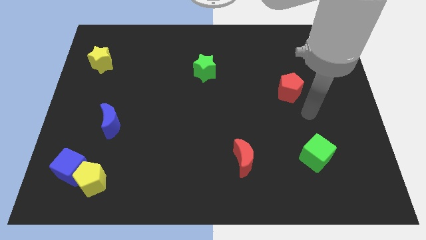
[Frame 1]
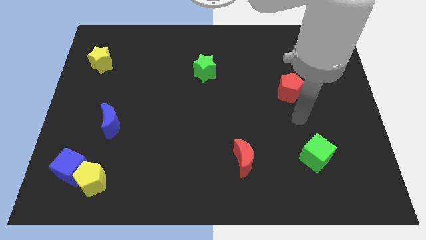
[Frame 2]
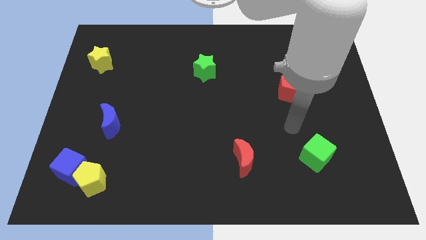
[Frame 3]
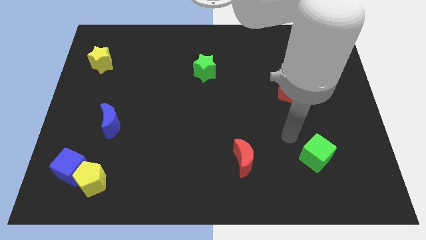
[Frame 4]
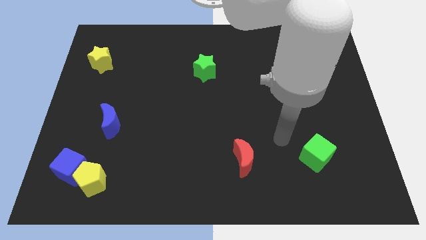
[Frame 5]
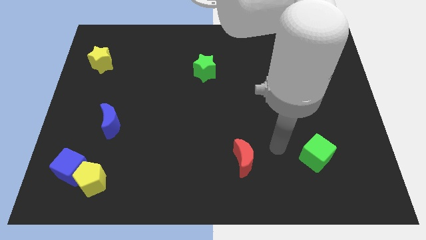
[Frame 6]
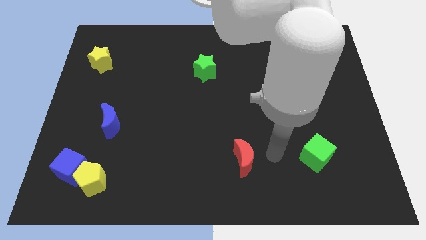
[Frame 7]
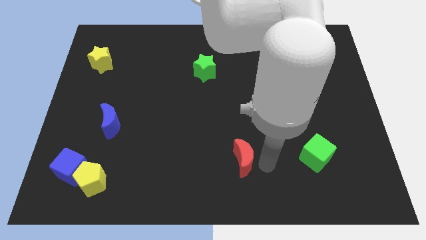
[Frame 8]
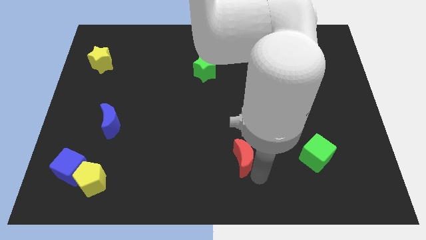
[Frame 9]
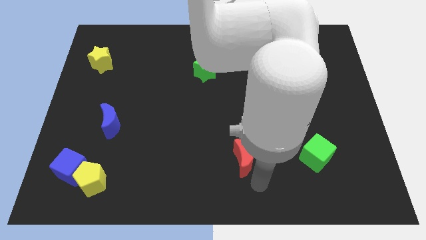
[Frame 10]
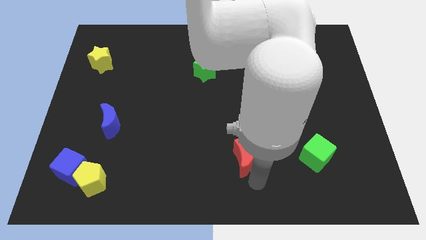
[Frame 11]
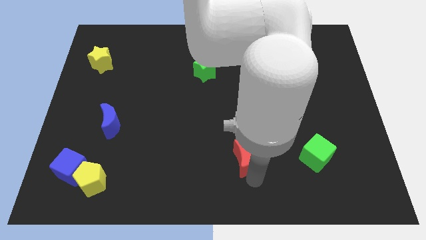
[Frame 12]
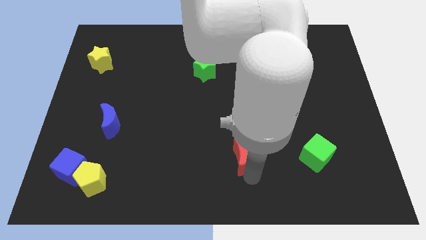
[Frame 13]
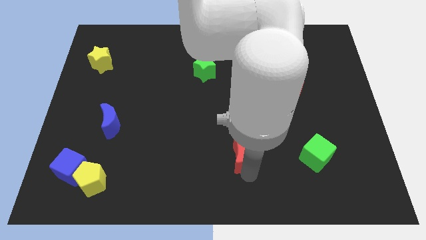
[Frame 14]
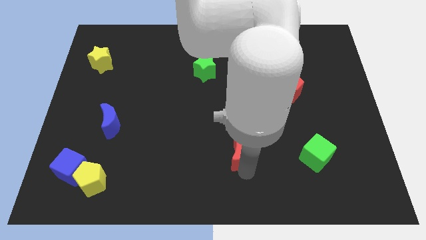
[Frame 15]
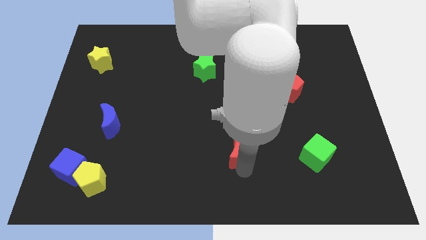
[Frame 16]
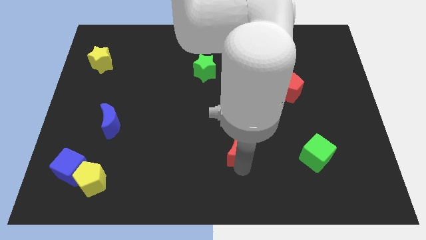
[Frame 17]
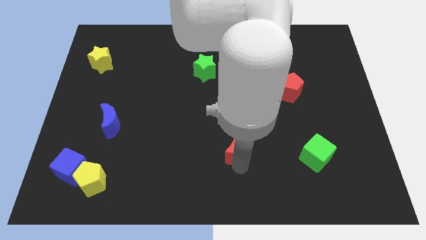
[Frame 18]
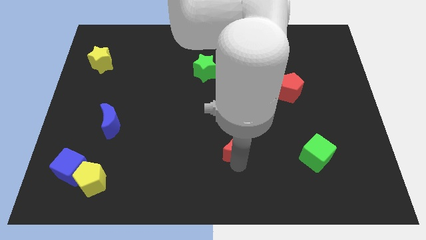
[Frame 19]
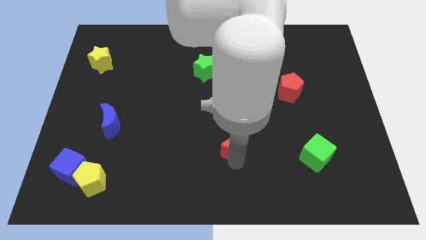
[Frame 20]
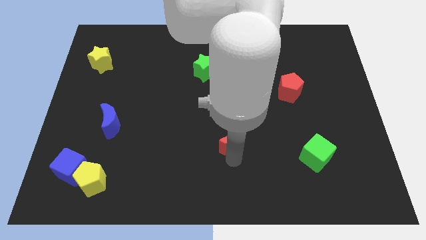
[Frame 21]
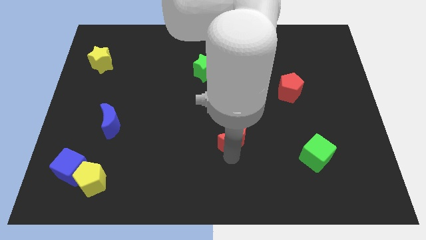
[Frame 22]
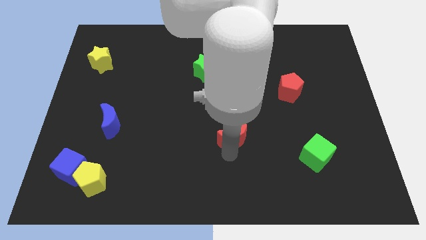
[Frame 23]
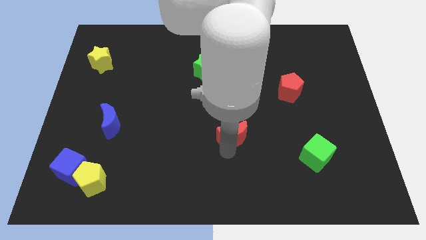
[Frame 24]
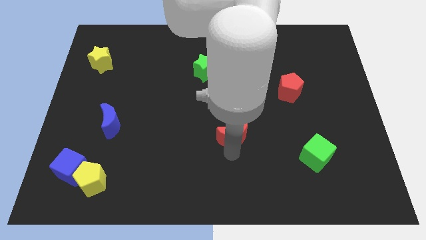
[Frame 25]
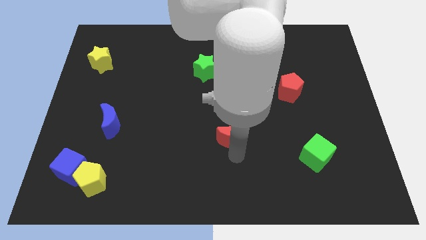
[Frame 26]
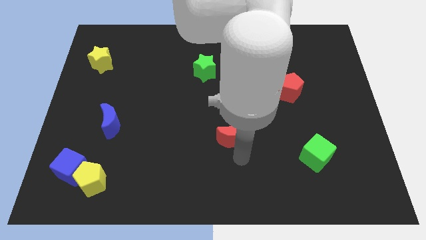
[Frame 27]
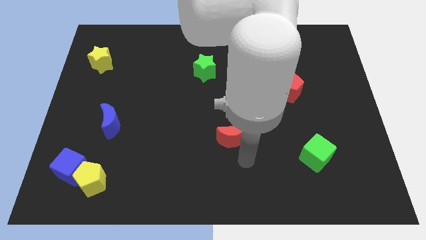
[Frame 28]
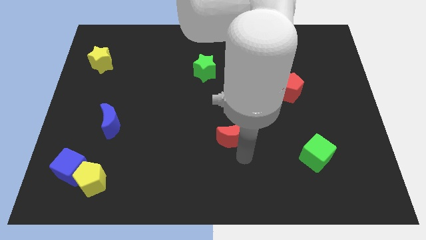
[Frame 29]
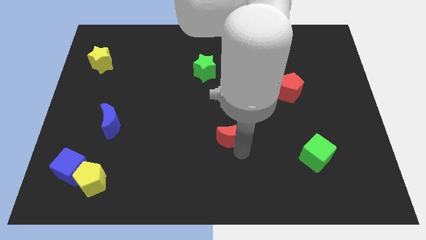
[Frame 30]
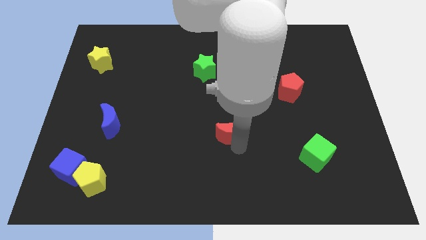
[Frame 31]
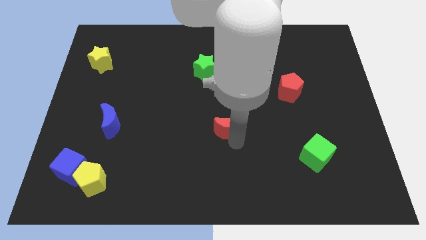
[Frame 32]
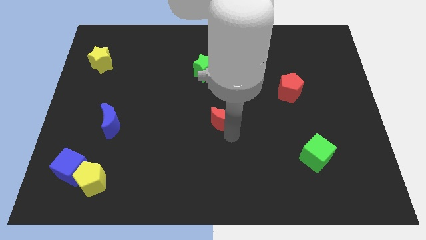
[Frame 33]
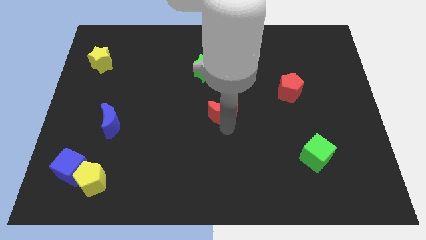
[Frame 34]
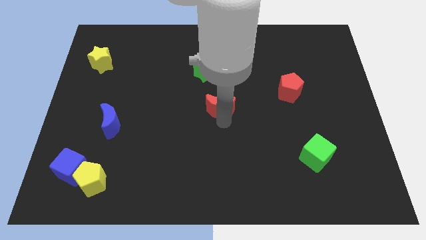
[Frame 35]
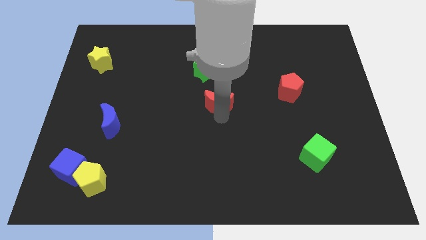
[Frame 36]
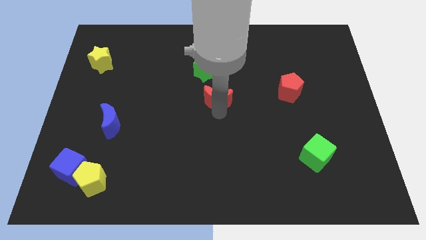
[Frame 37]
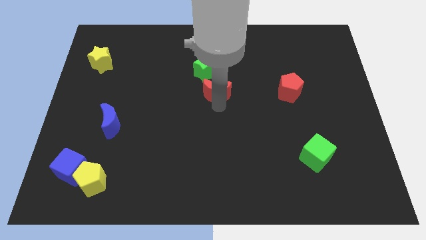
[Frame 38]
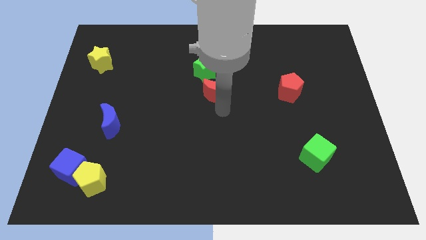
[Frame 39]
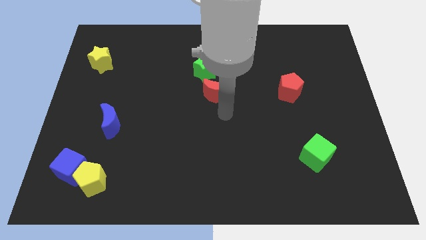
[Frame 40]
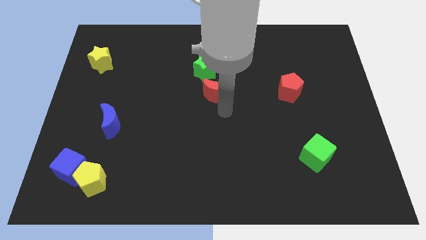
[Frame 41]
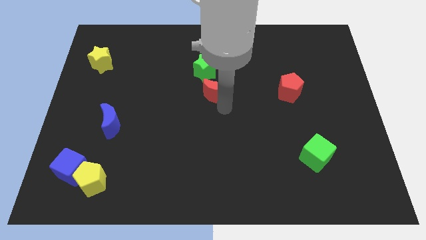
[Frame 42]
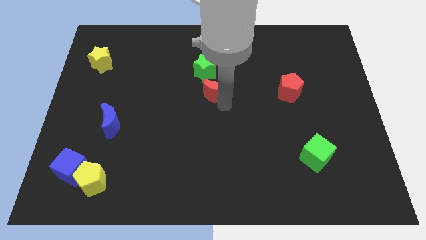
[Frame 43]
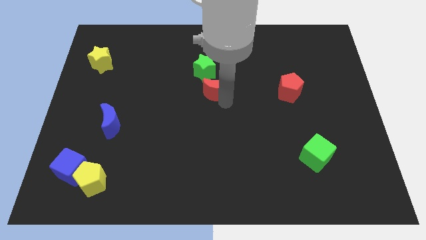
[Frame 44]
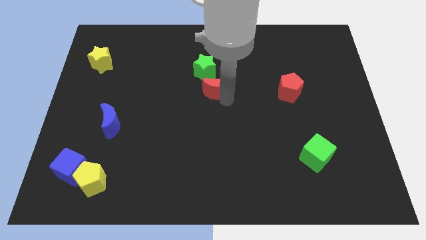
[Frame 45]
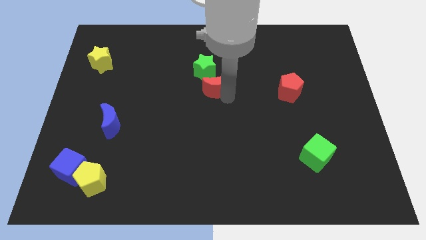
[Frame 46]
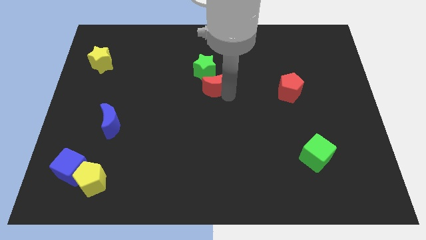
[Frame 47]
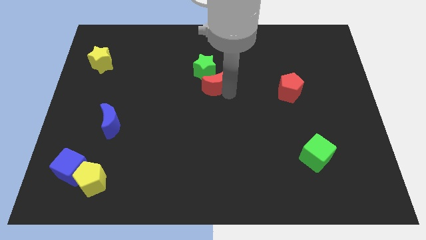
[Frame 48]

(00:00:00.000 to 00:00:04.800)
put the red moon close to the green star

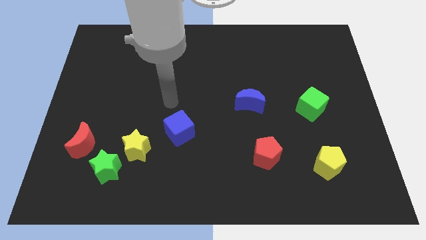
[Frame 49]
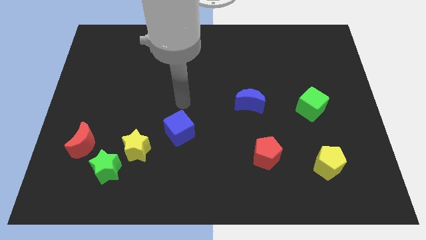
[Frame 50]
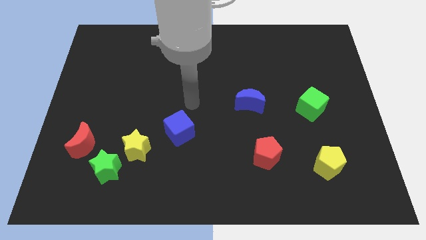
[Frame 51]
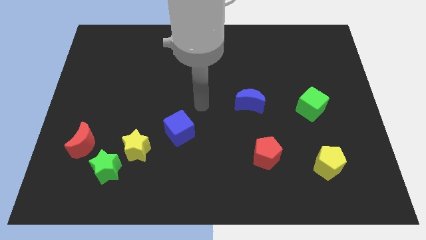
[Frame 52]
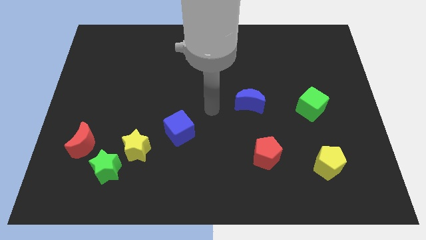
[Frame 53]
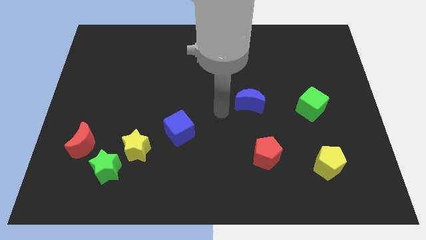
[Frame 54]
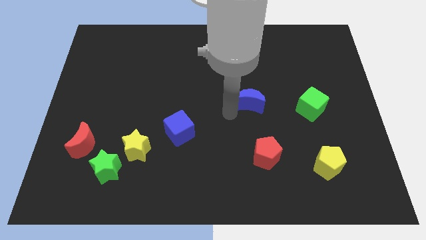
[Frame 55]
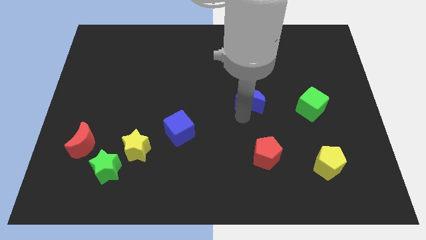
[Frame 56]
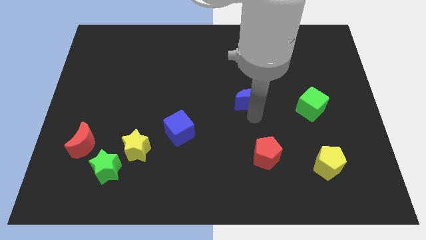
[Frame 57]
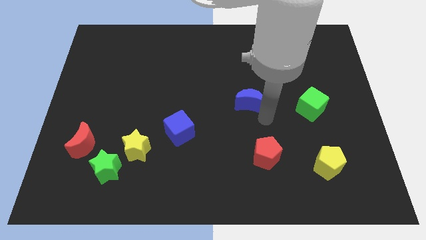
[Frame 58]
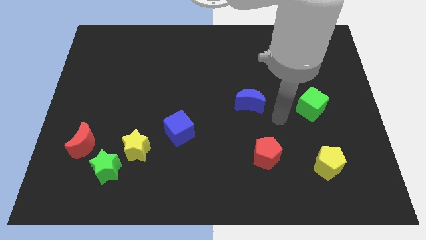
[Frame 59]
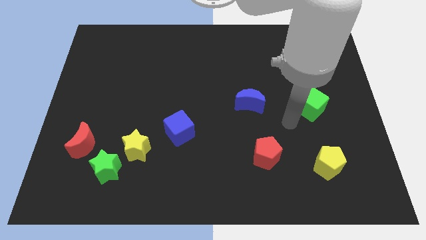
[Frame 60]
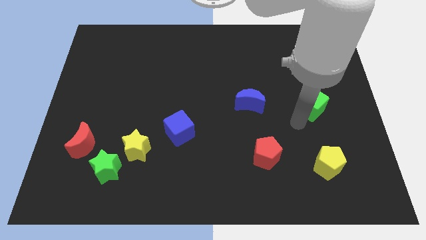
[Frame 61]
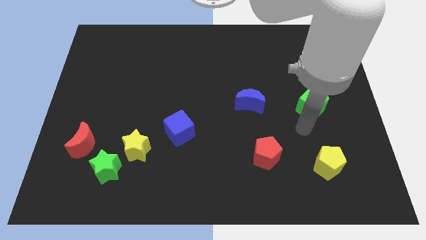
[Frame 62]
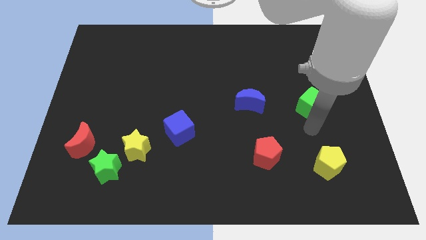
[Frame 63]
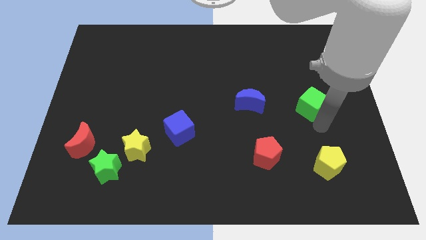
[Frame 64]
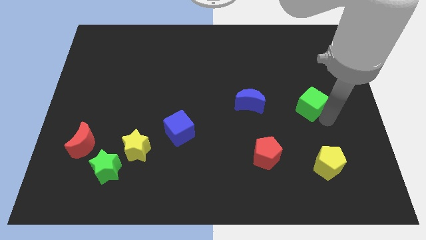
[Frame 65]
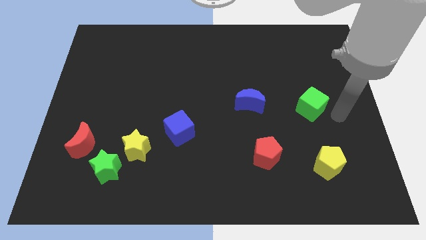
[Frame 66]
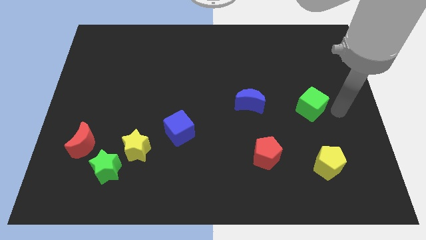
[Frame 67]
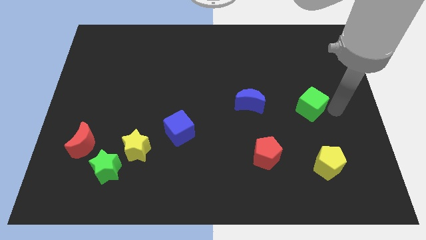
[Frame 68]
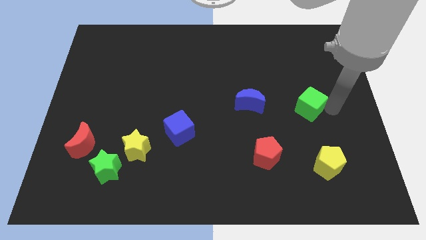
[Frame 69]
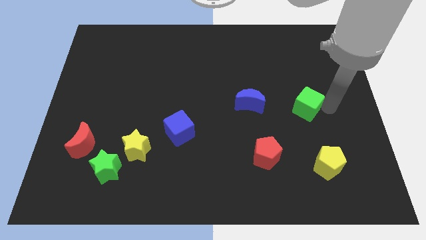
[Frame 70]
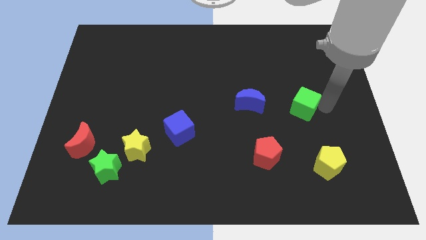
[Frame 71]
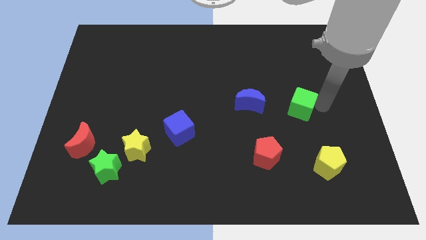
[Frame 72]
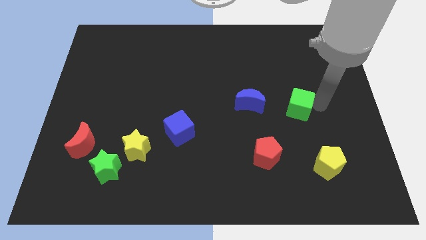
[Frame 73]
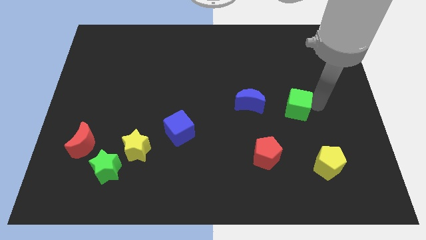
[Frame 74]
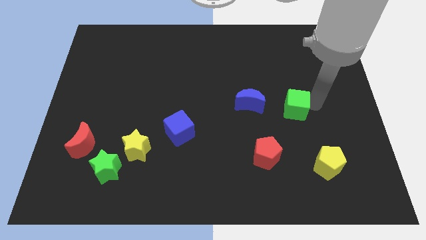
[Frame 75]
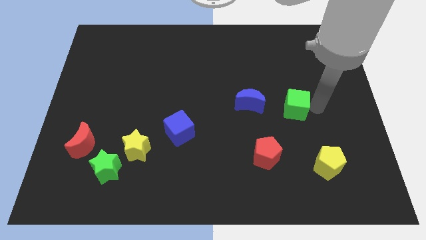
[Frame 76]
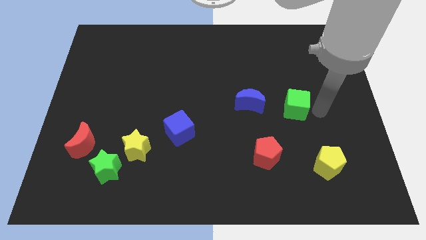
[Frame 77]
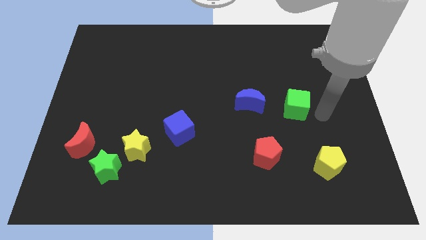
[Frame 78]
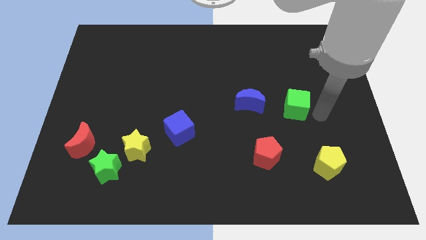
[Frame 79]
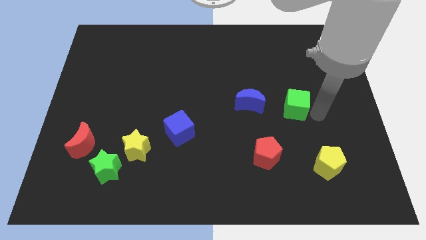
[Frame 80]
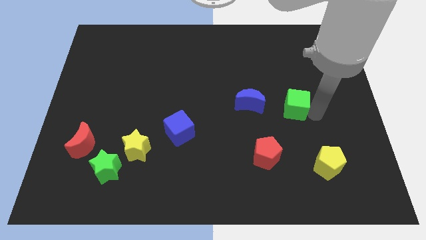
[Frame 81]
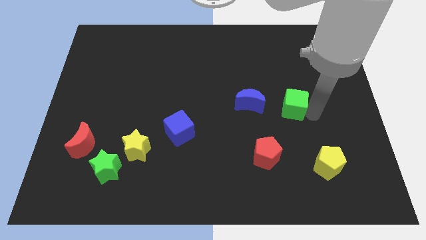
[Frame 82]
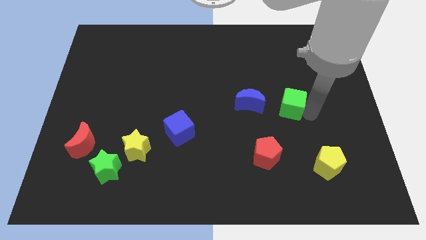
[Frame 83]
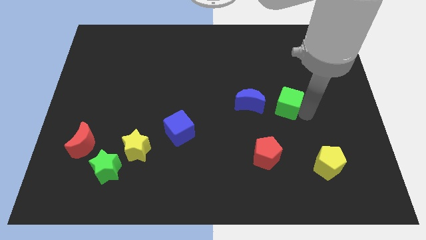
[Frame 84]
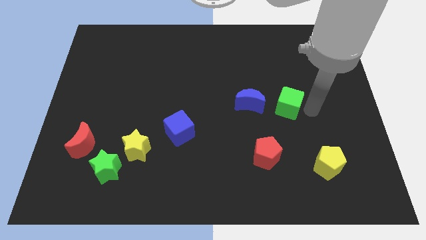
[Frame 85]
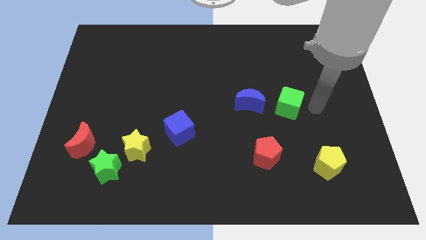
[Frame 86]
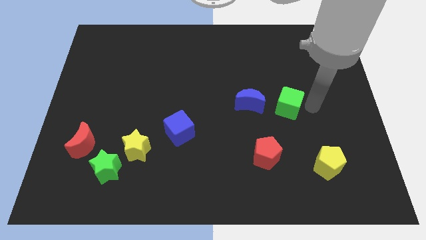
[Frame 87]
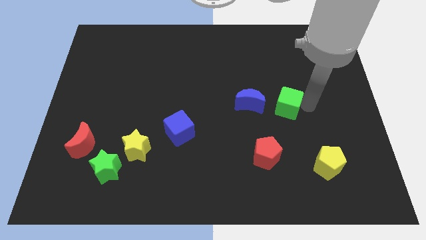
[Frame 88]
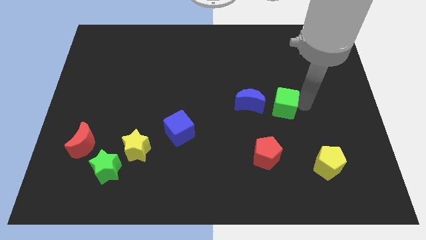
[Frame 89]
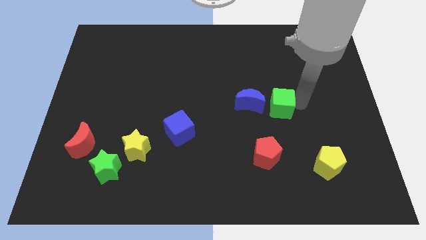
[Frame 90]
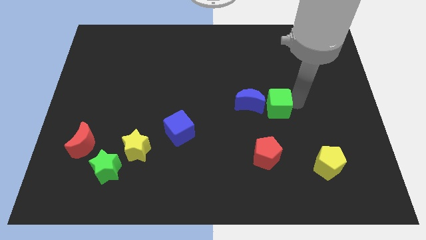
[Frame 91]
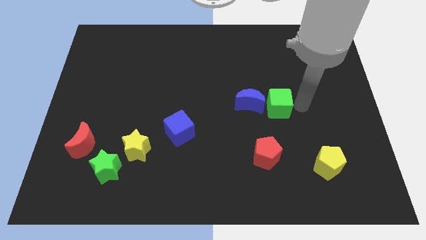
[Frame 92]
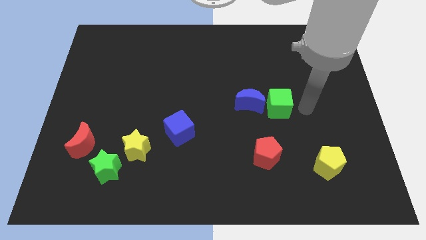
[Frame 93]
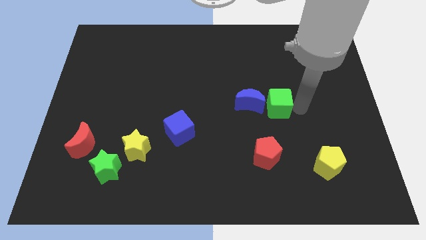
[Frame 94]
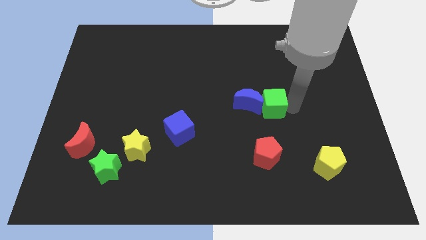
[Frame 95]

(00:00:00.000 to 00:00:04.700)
put the green cube close to the blue moon
